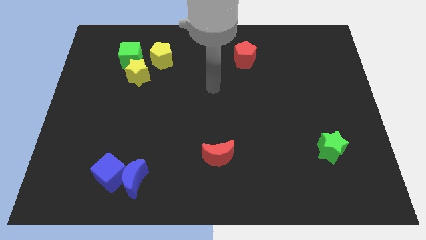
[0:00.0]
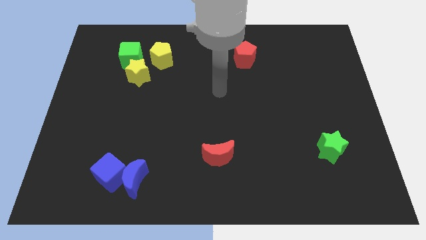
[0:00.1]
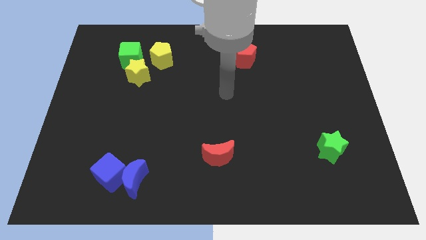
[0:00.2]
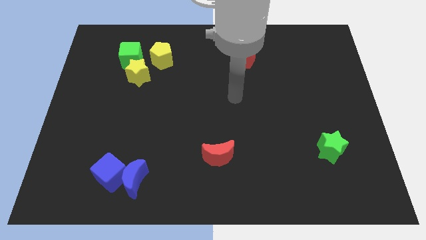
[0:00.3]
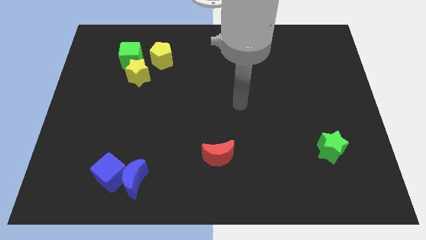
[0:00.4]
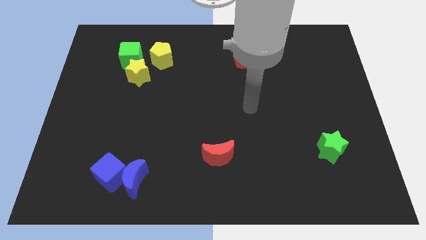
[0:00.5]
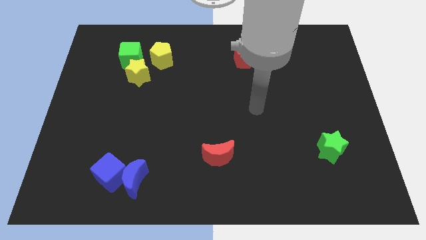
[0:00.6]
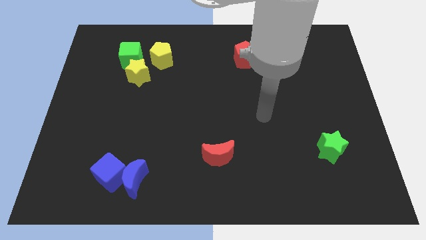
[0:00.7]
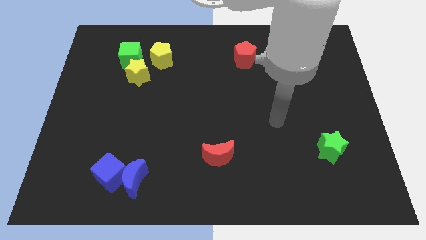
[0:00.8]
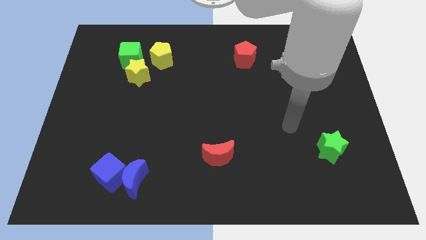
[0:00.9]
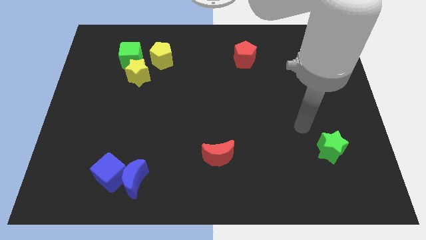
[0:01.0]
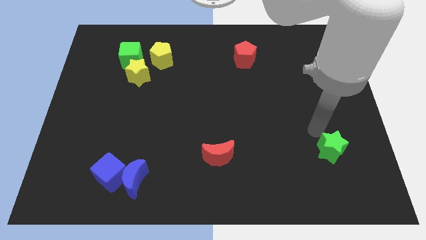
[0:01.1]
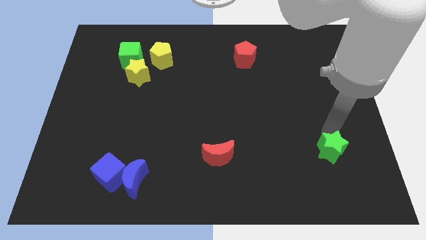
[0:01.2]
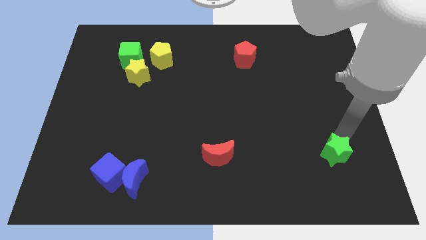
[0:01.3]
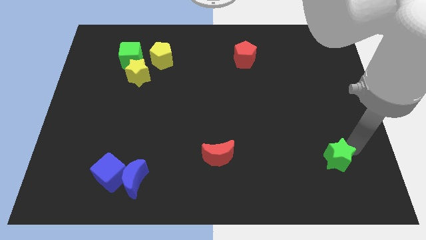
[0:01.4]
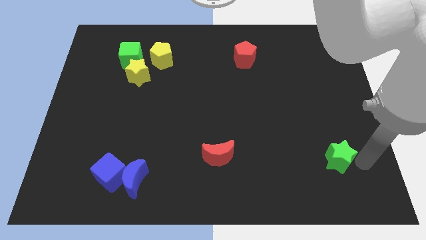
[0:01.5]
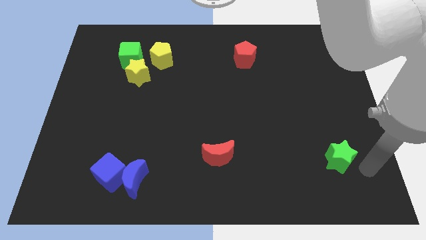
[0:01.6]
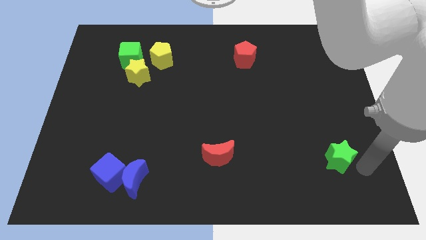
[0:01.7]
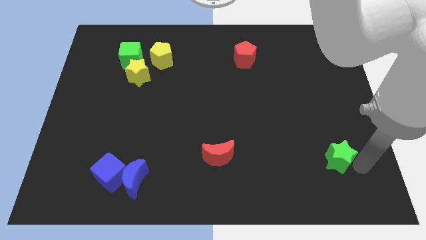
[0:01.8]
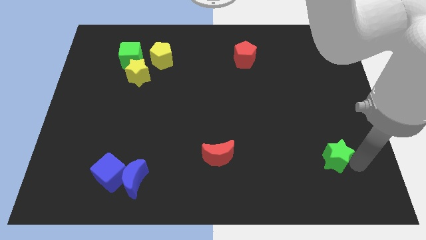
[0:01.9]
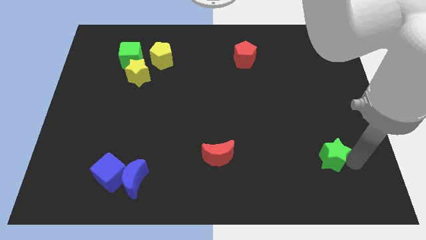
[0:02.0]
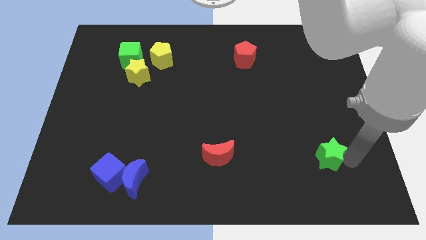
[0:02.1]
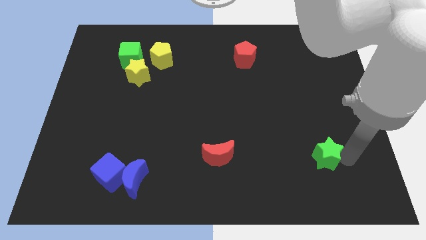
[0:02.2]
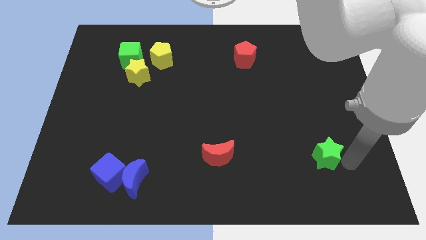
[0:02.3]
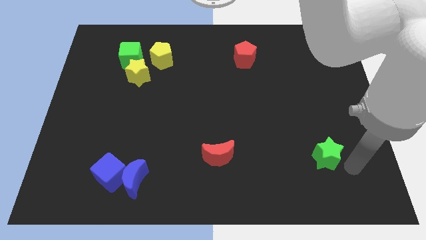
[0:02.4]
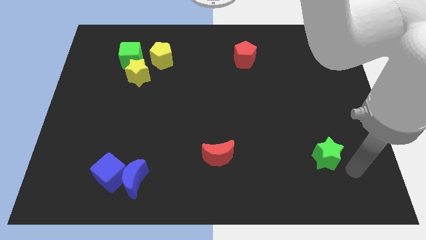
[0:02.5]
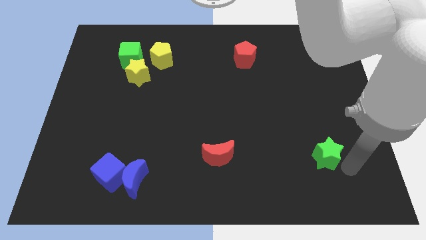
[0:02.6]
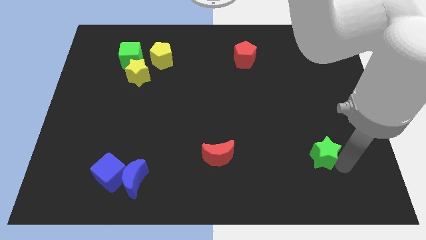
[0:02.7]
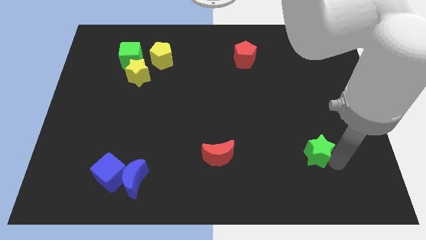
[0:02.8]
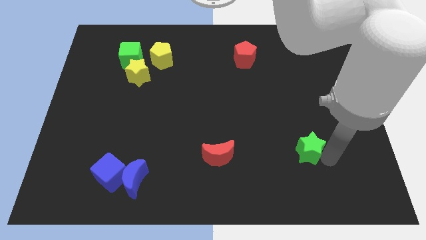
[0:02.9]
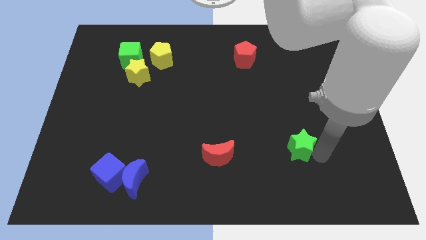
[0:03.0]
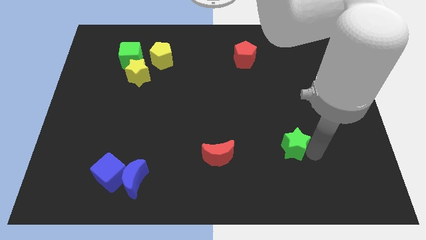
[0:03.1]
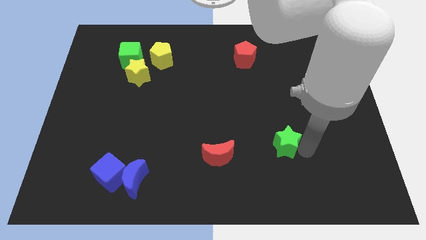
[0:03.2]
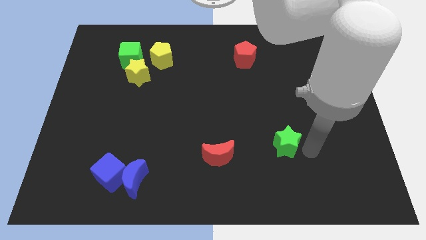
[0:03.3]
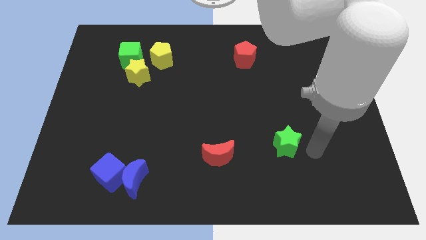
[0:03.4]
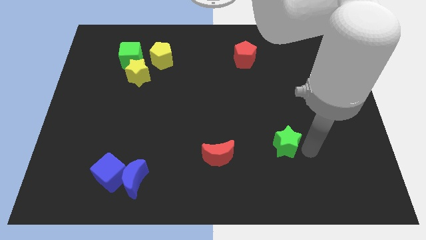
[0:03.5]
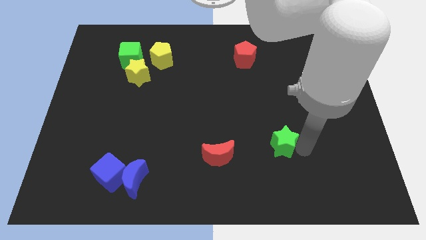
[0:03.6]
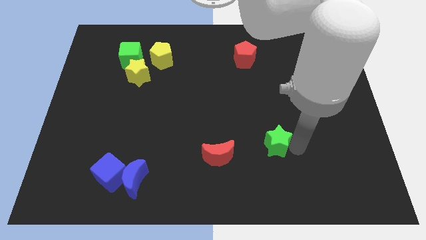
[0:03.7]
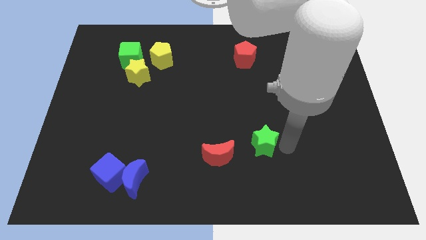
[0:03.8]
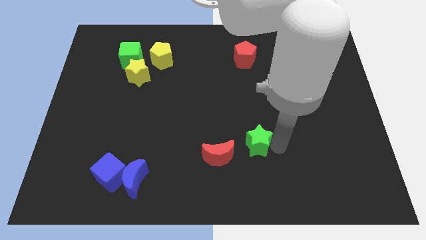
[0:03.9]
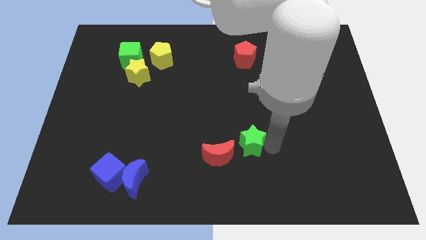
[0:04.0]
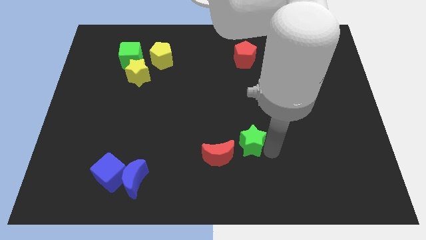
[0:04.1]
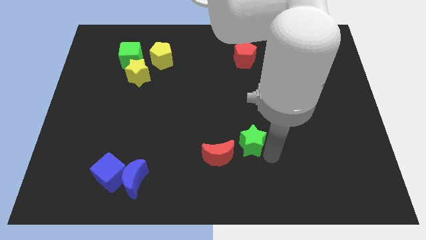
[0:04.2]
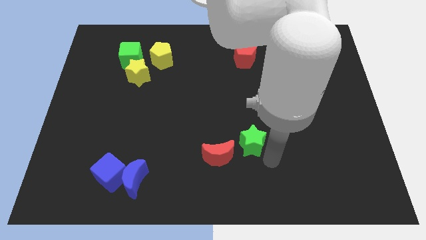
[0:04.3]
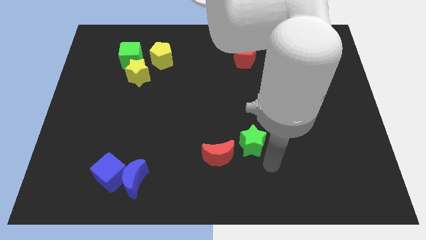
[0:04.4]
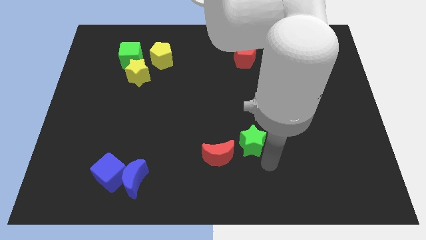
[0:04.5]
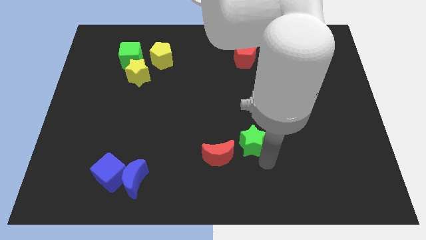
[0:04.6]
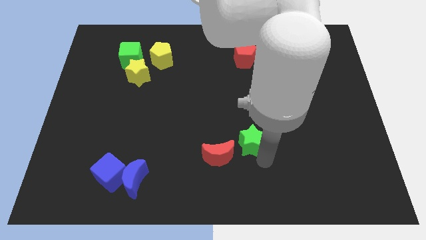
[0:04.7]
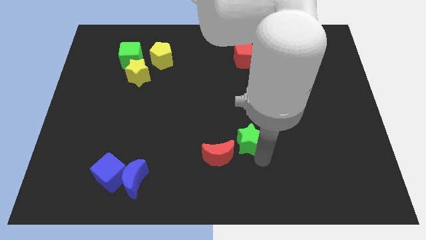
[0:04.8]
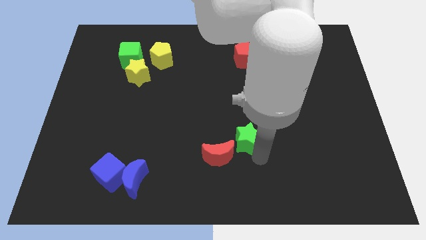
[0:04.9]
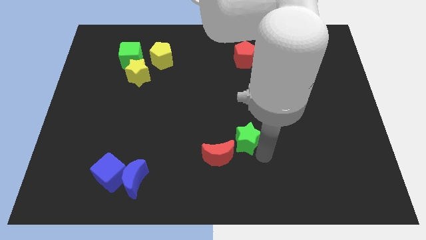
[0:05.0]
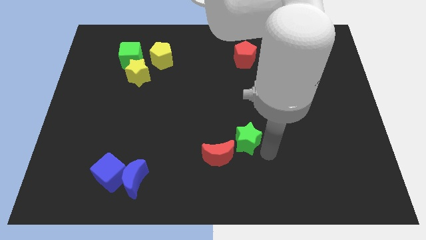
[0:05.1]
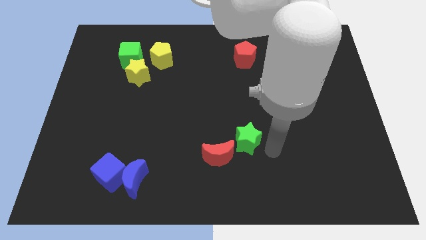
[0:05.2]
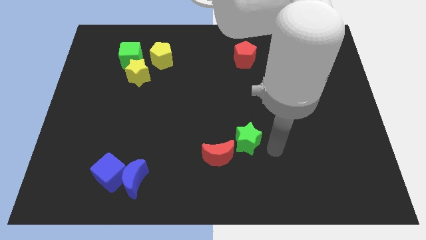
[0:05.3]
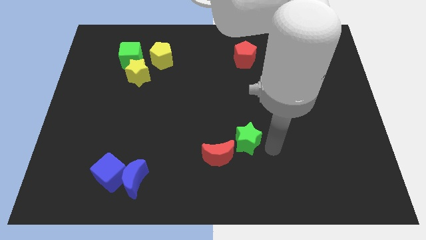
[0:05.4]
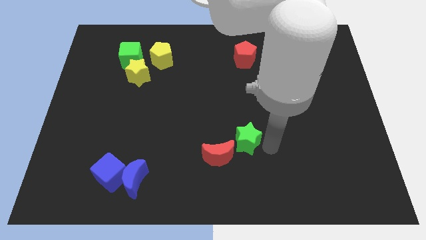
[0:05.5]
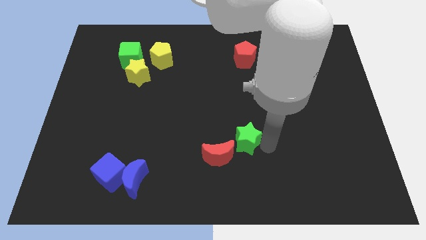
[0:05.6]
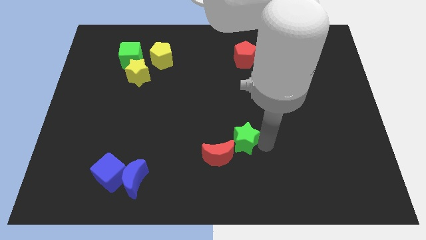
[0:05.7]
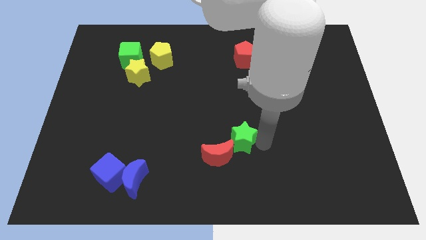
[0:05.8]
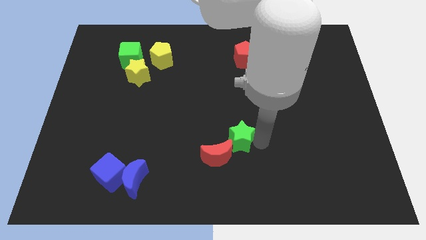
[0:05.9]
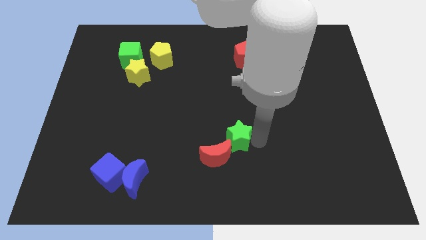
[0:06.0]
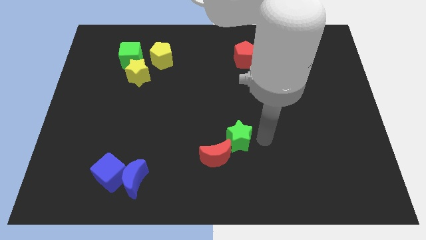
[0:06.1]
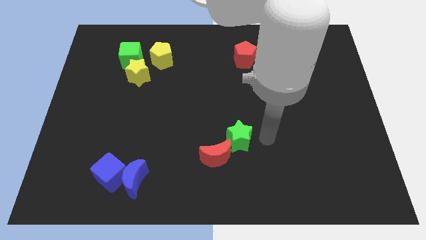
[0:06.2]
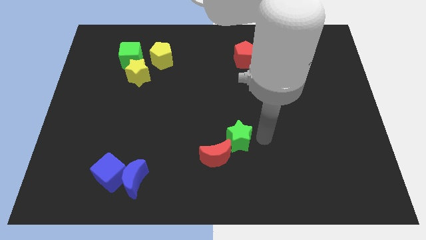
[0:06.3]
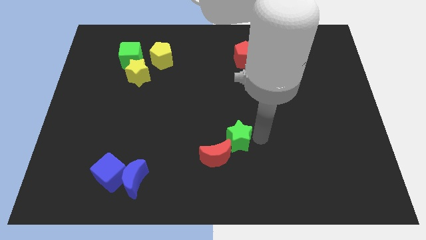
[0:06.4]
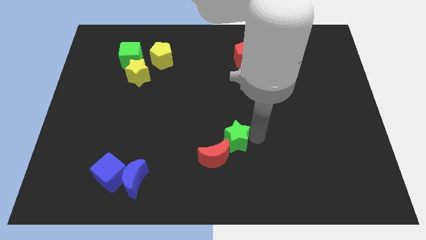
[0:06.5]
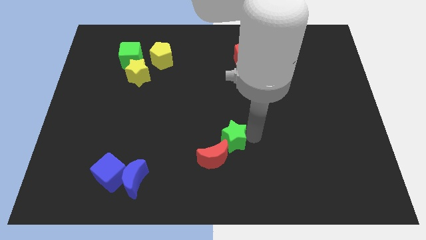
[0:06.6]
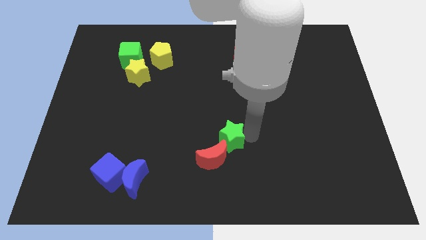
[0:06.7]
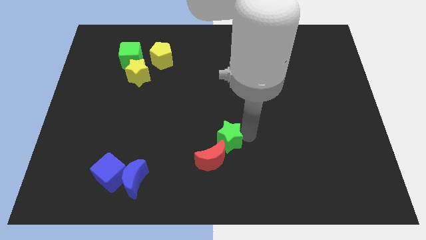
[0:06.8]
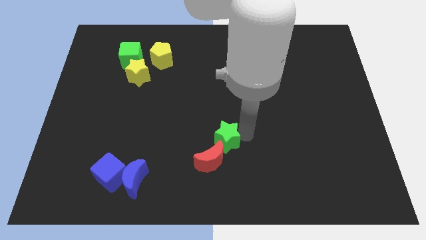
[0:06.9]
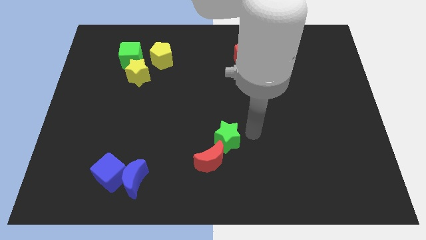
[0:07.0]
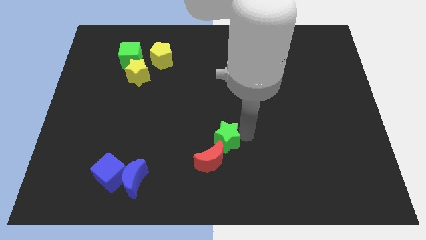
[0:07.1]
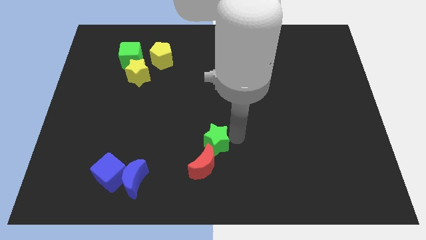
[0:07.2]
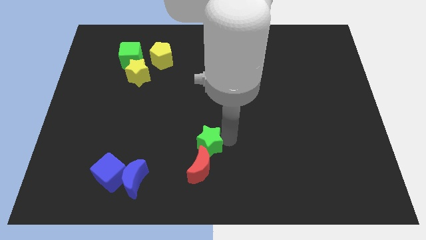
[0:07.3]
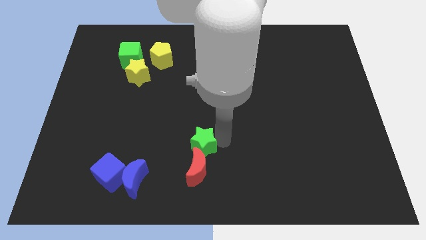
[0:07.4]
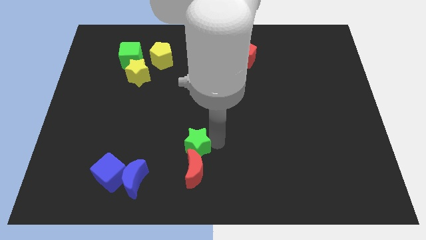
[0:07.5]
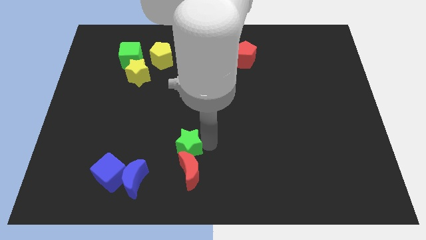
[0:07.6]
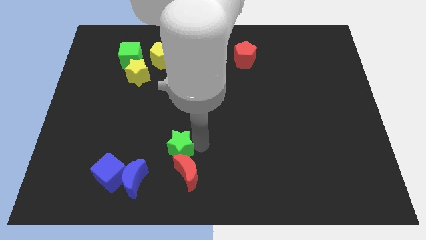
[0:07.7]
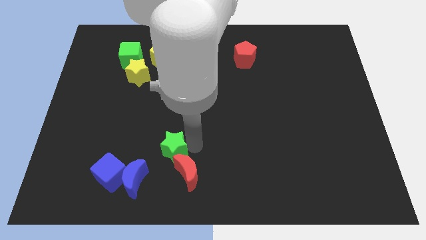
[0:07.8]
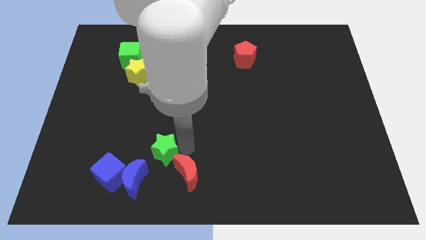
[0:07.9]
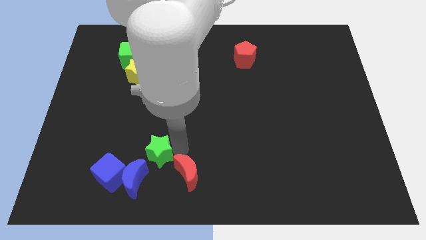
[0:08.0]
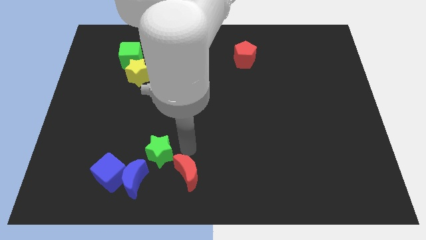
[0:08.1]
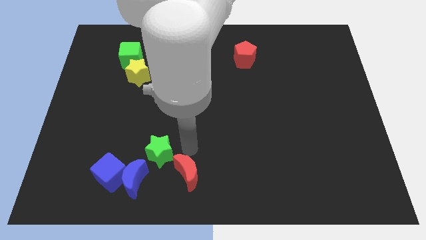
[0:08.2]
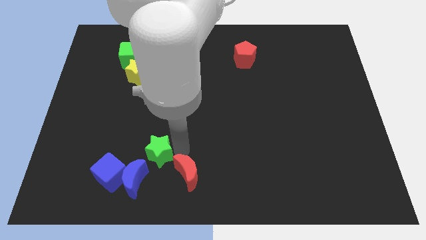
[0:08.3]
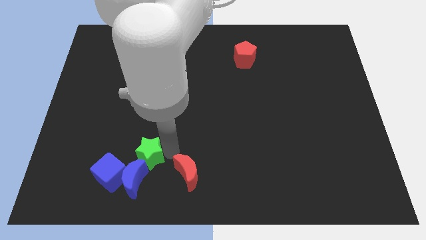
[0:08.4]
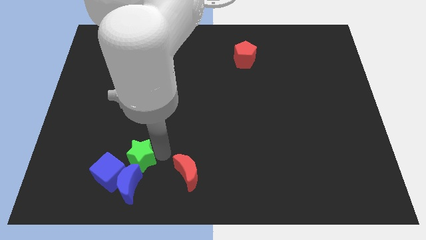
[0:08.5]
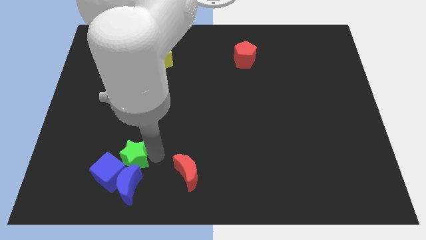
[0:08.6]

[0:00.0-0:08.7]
move the green star close to the blue cube
